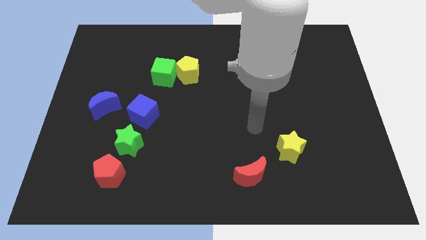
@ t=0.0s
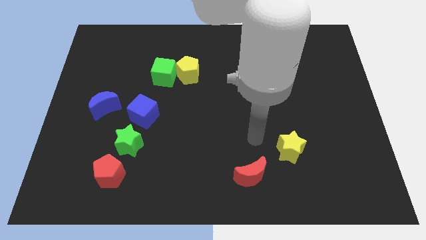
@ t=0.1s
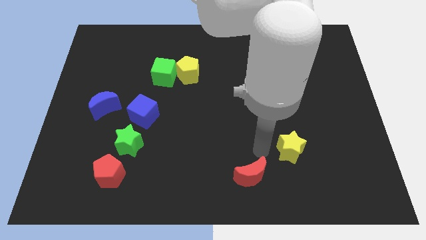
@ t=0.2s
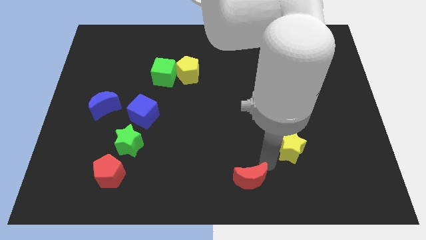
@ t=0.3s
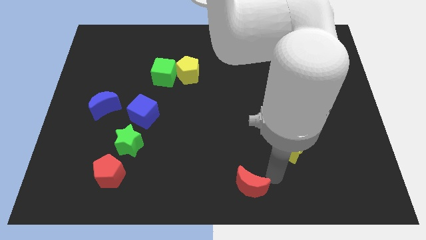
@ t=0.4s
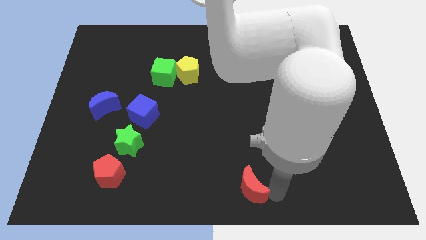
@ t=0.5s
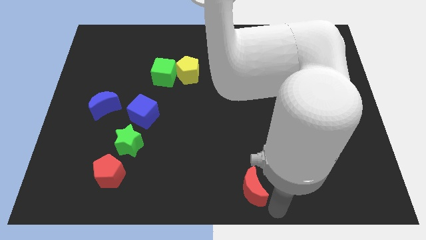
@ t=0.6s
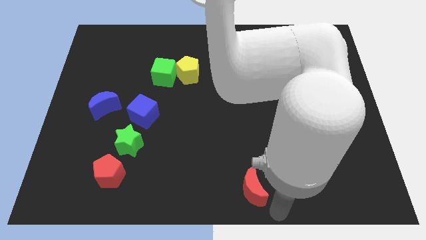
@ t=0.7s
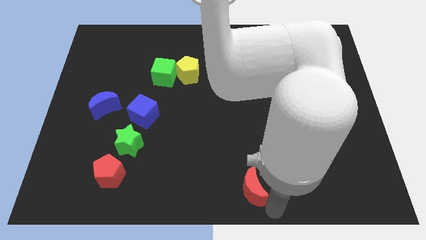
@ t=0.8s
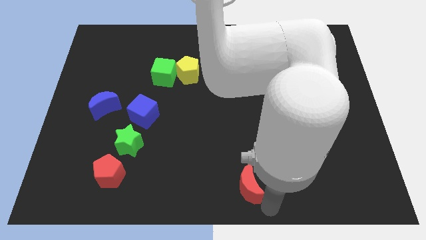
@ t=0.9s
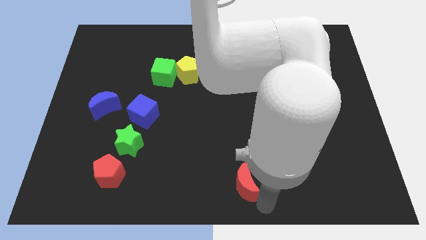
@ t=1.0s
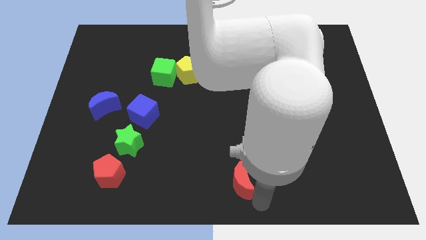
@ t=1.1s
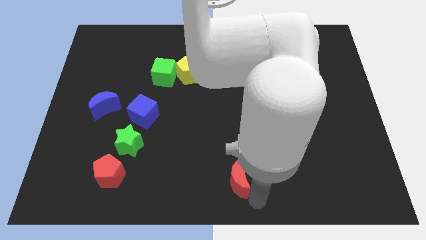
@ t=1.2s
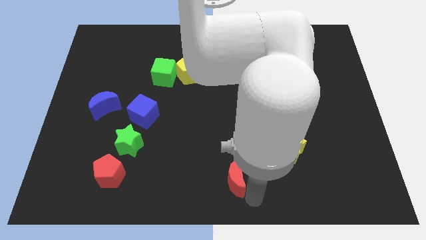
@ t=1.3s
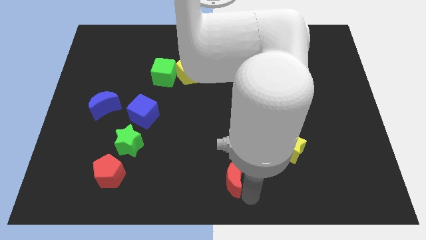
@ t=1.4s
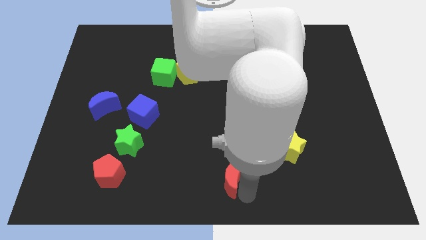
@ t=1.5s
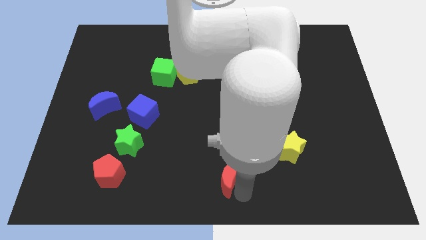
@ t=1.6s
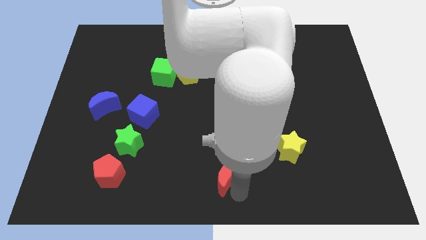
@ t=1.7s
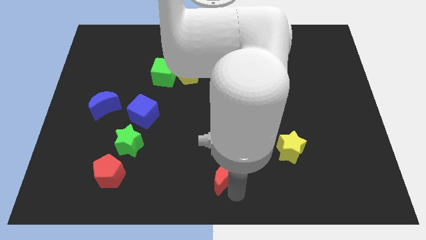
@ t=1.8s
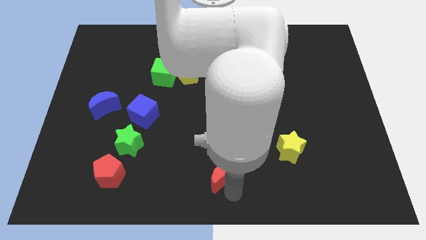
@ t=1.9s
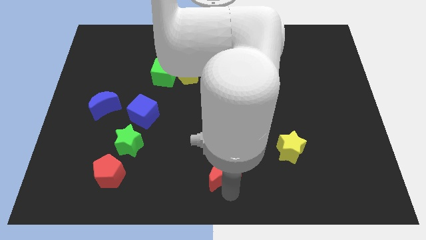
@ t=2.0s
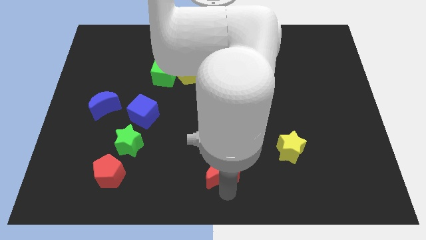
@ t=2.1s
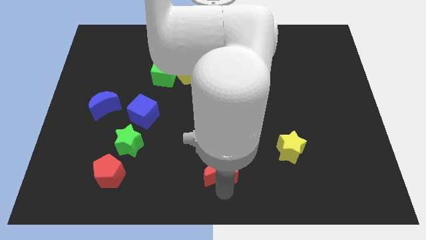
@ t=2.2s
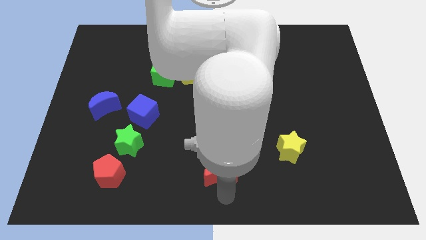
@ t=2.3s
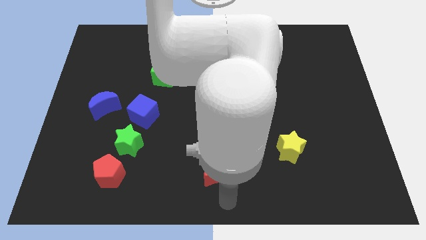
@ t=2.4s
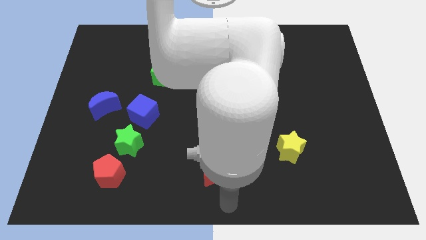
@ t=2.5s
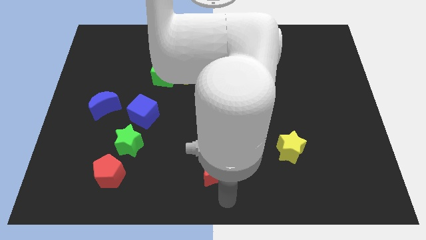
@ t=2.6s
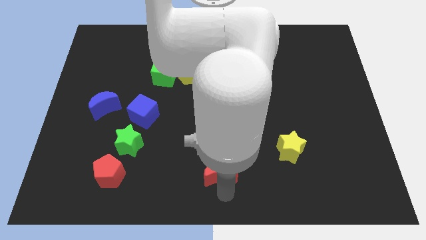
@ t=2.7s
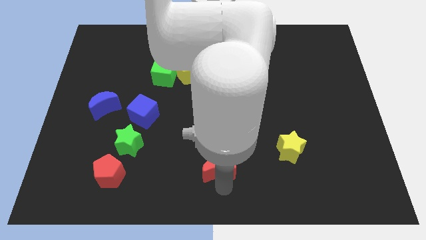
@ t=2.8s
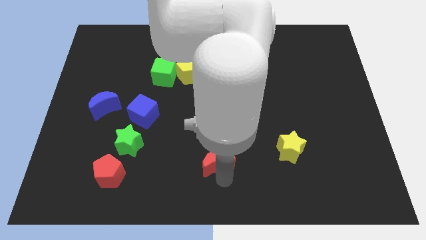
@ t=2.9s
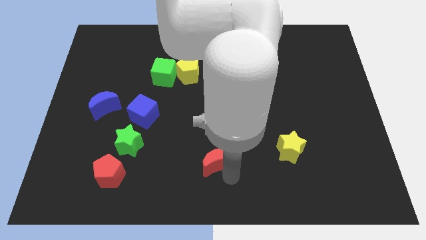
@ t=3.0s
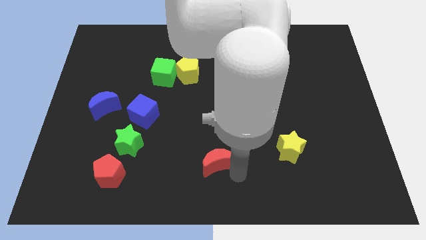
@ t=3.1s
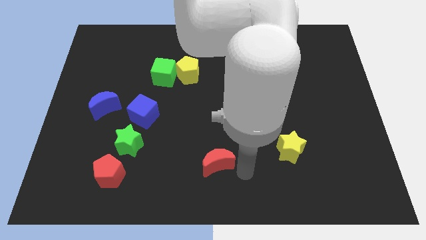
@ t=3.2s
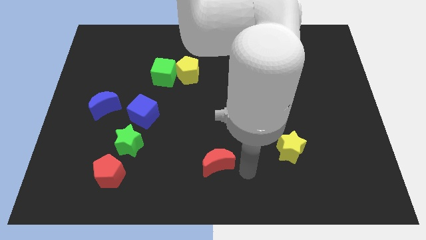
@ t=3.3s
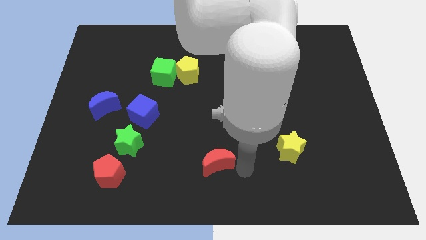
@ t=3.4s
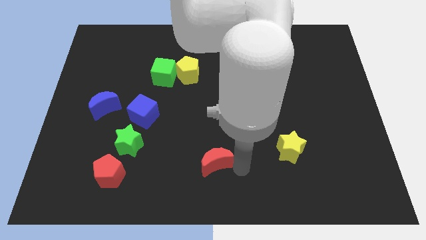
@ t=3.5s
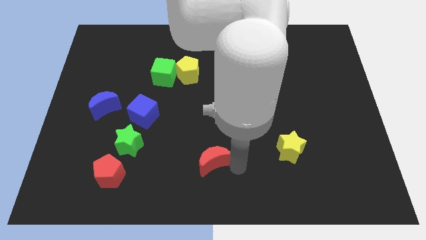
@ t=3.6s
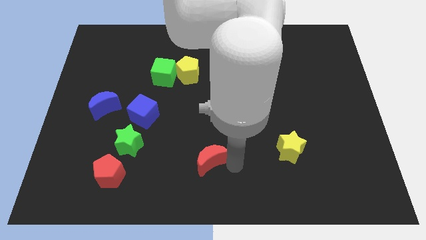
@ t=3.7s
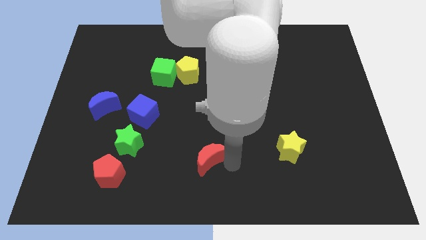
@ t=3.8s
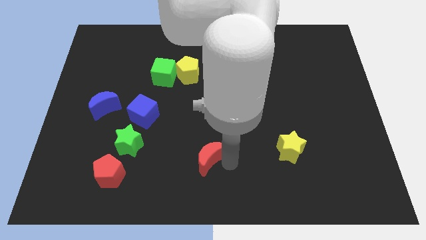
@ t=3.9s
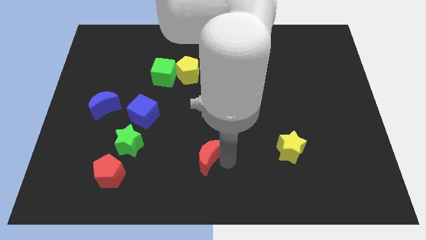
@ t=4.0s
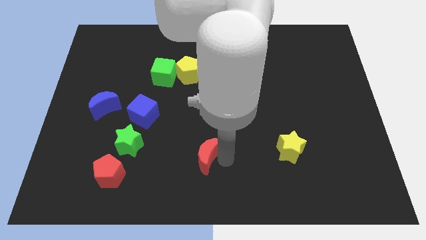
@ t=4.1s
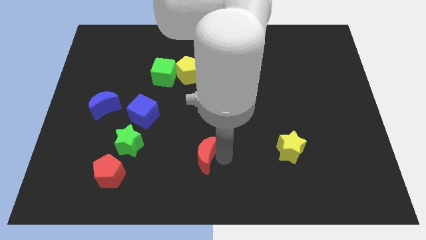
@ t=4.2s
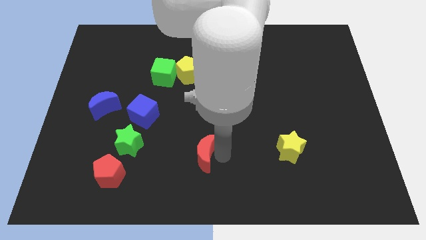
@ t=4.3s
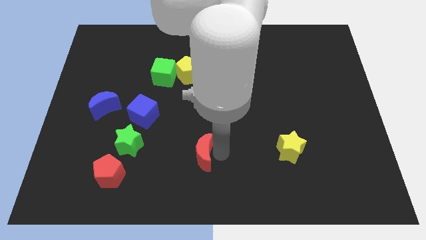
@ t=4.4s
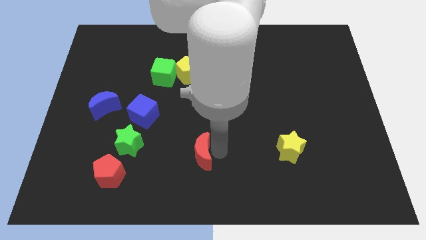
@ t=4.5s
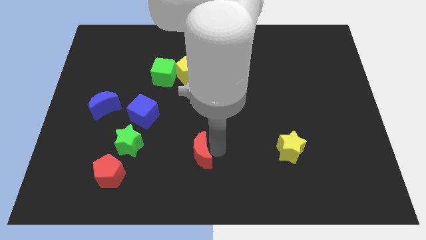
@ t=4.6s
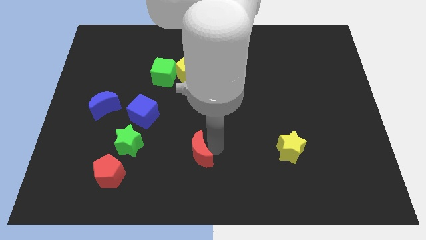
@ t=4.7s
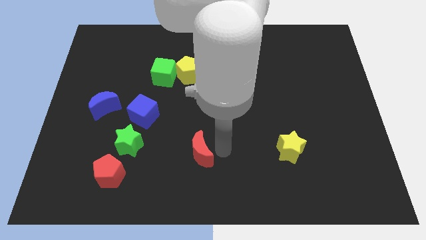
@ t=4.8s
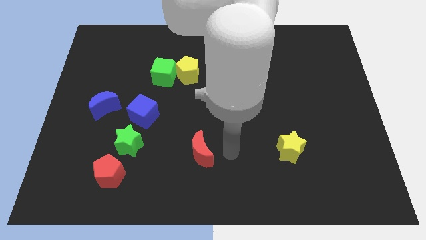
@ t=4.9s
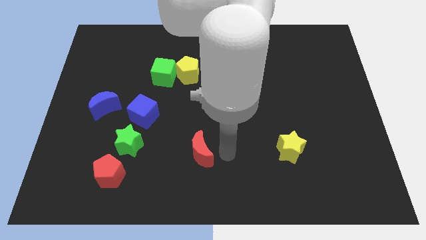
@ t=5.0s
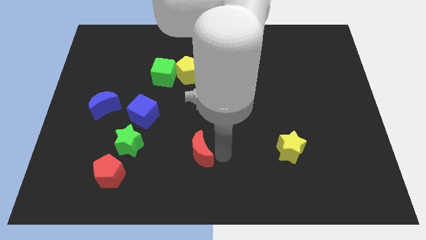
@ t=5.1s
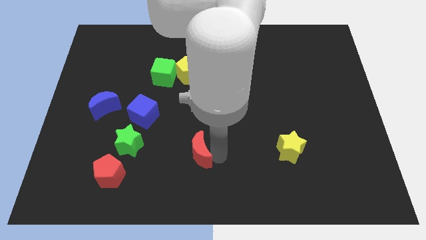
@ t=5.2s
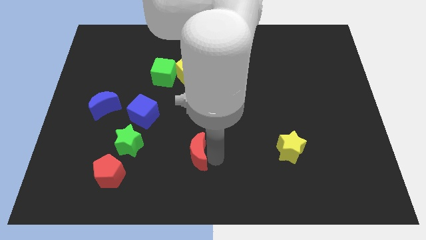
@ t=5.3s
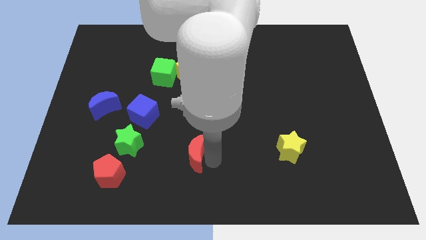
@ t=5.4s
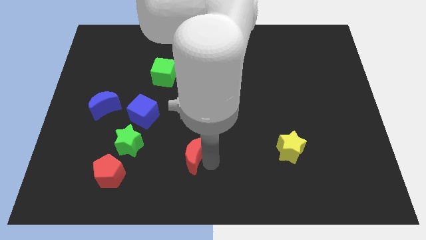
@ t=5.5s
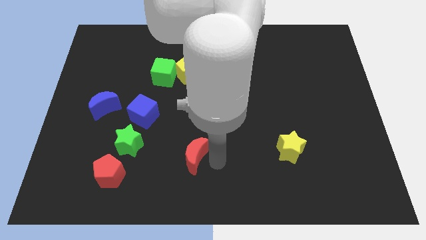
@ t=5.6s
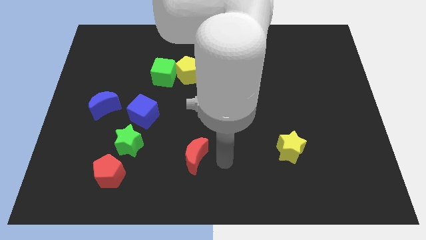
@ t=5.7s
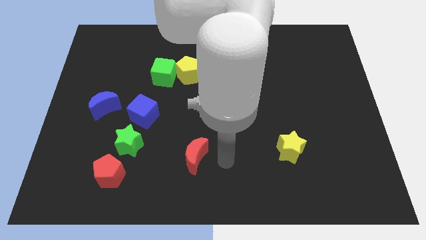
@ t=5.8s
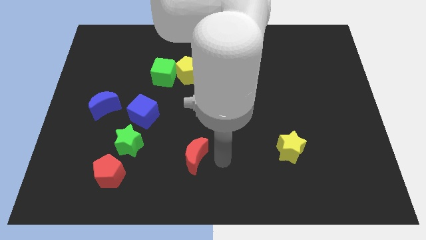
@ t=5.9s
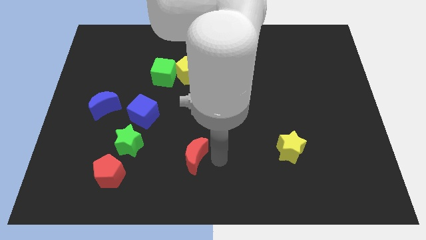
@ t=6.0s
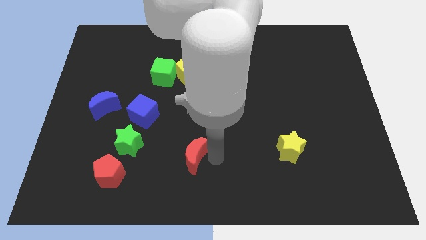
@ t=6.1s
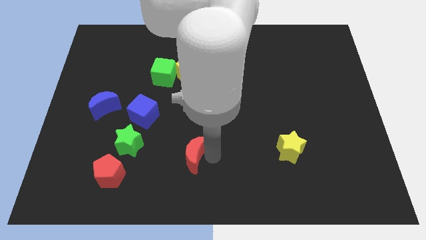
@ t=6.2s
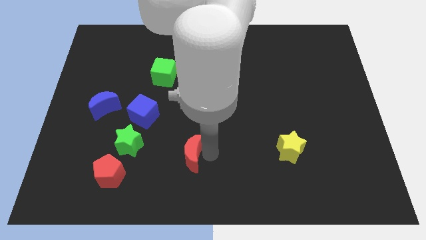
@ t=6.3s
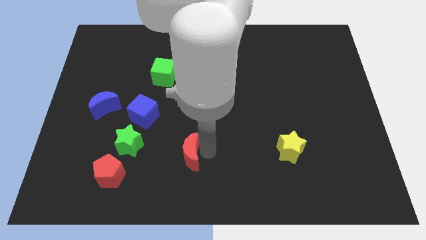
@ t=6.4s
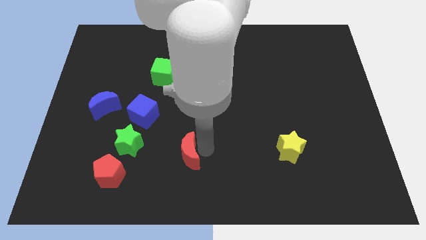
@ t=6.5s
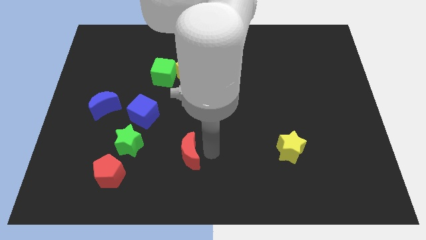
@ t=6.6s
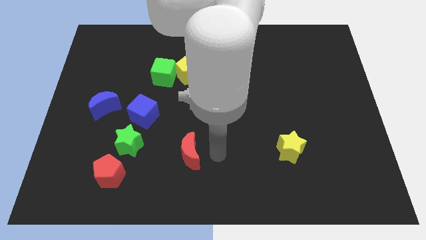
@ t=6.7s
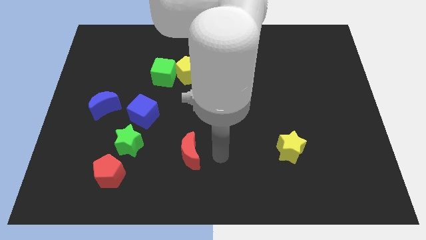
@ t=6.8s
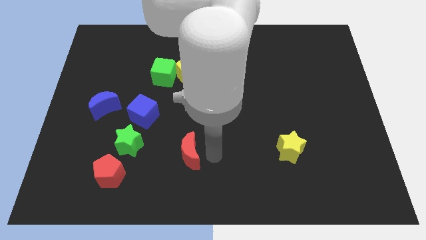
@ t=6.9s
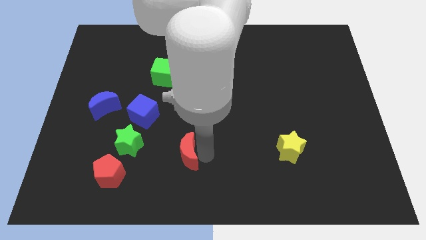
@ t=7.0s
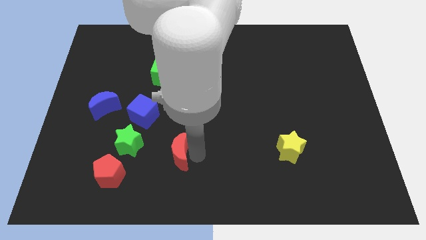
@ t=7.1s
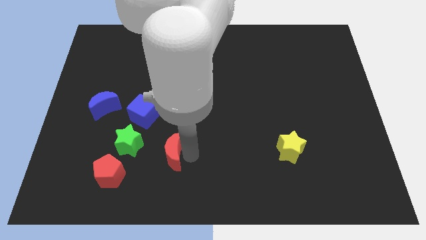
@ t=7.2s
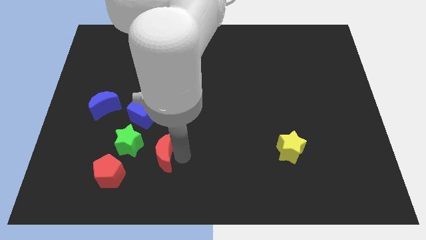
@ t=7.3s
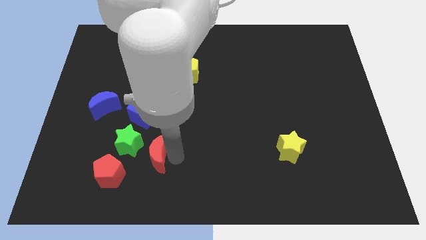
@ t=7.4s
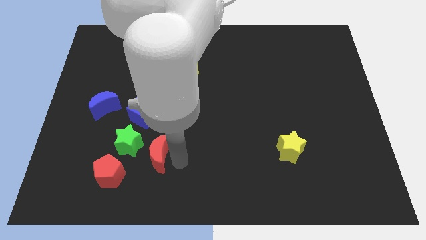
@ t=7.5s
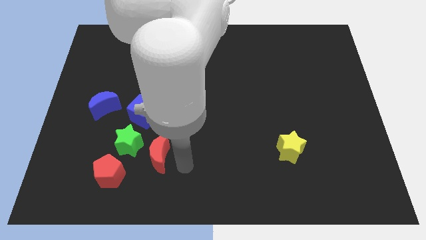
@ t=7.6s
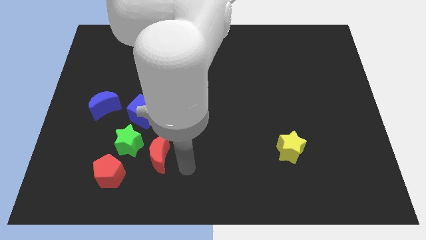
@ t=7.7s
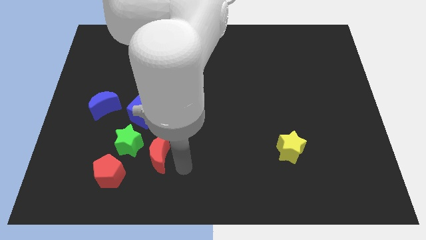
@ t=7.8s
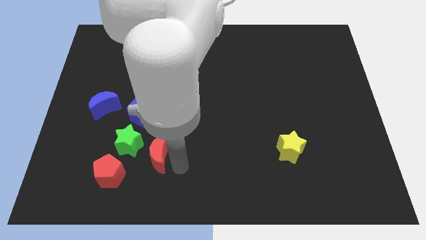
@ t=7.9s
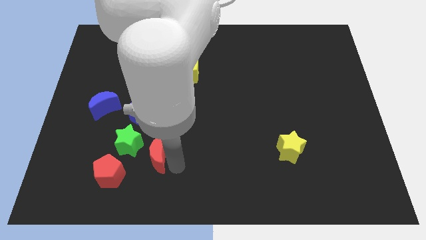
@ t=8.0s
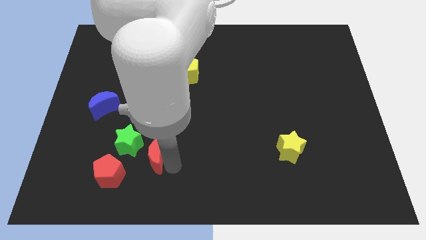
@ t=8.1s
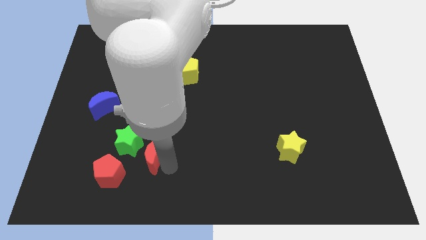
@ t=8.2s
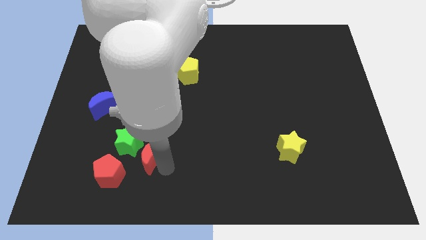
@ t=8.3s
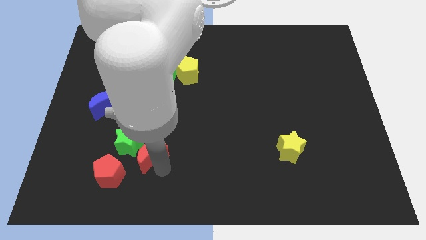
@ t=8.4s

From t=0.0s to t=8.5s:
slide the red moon to the green star
